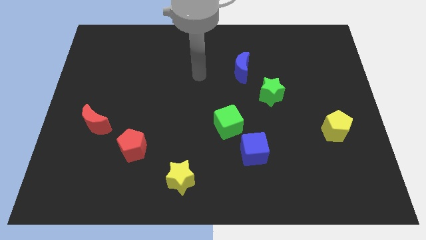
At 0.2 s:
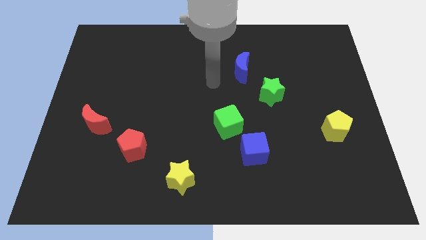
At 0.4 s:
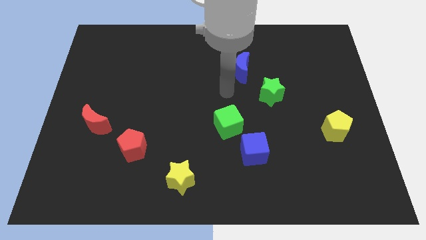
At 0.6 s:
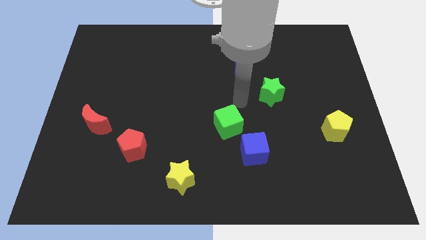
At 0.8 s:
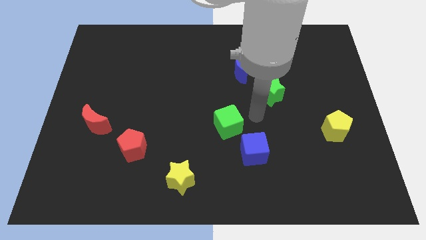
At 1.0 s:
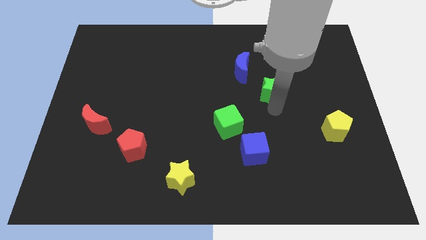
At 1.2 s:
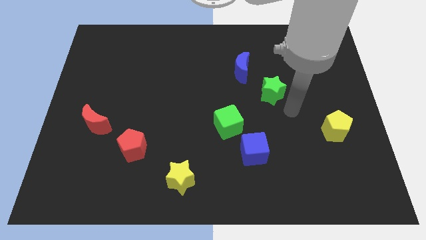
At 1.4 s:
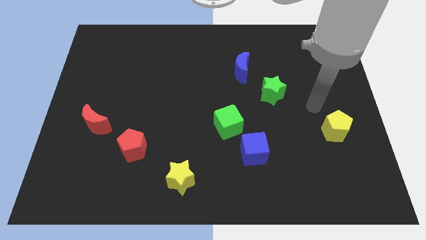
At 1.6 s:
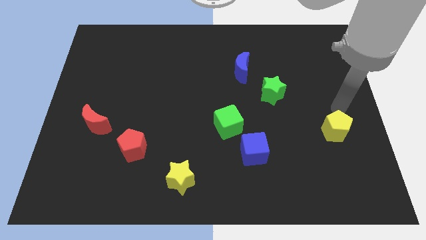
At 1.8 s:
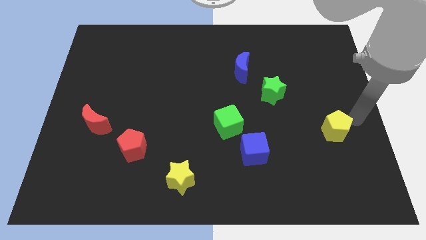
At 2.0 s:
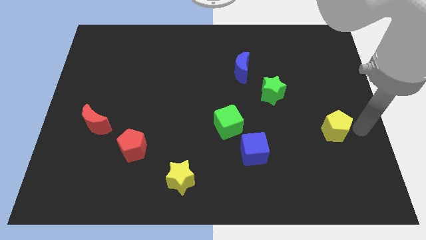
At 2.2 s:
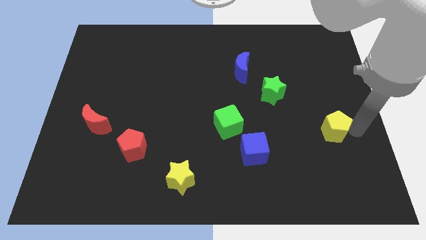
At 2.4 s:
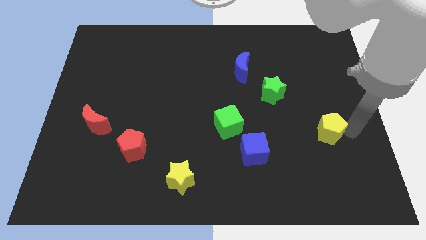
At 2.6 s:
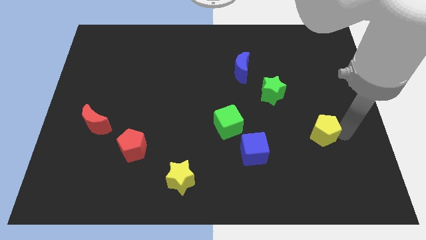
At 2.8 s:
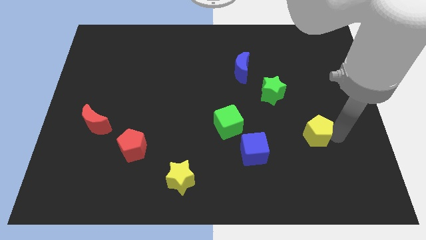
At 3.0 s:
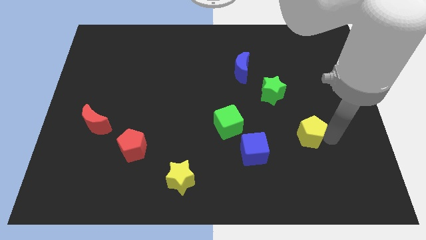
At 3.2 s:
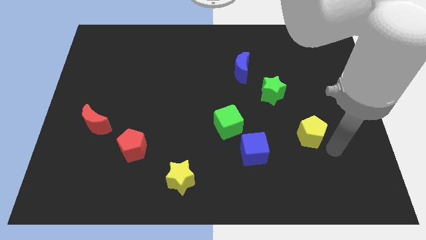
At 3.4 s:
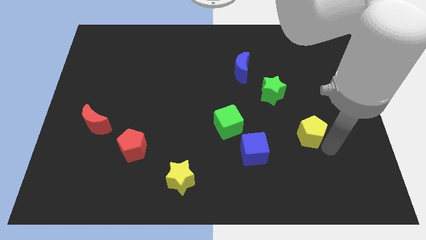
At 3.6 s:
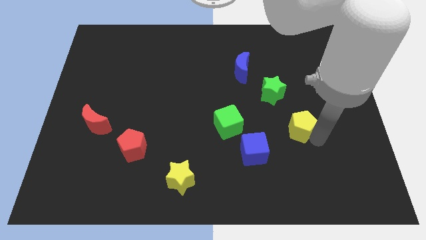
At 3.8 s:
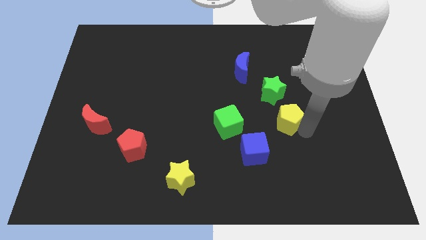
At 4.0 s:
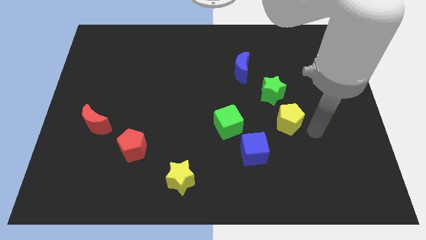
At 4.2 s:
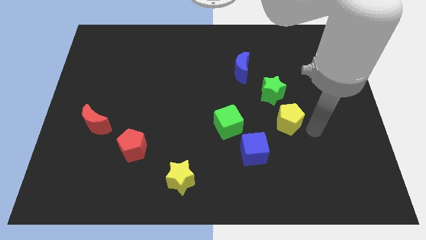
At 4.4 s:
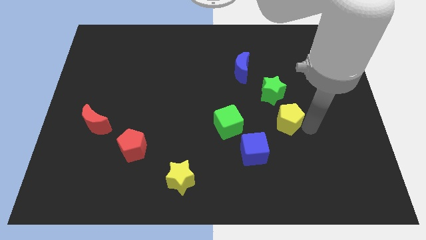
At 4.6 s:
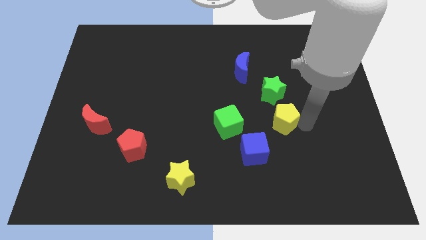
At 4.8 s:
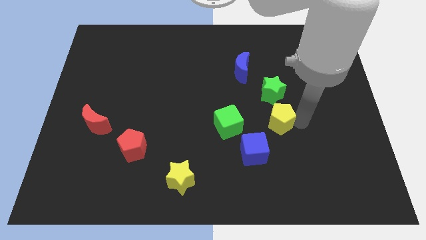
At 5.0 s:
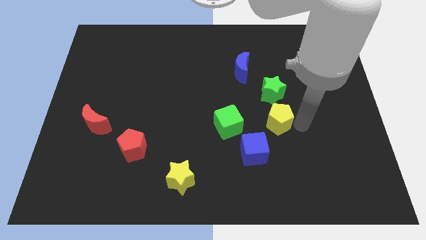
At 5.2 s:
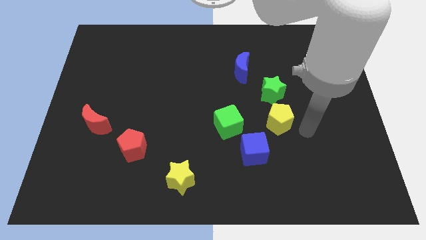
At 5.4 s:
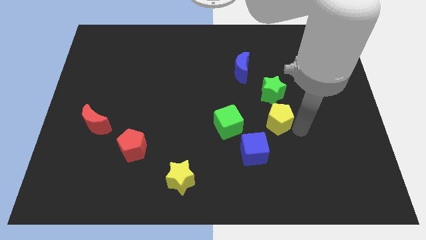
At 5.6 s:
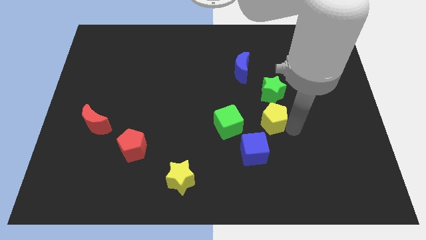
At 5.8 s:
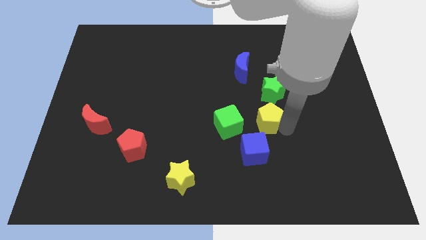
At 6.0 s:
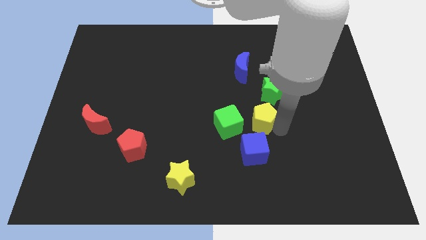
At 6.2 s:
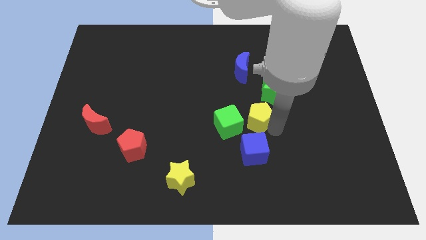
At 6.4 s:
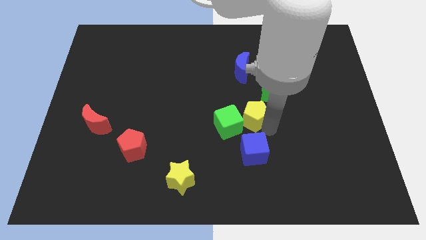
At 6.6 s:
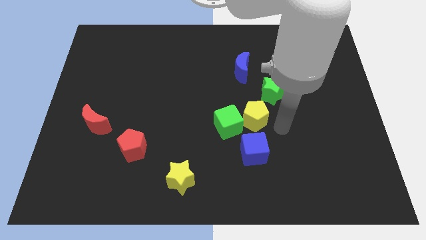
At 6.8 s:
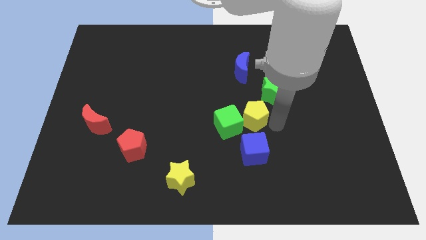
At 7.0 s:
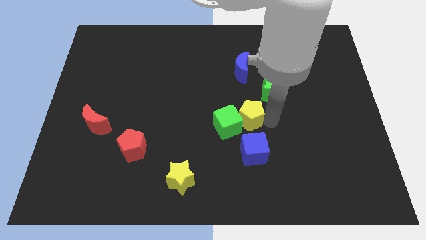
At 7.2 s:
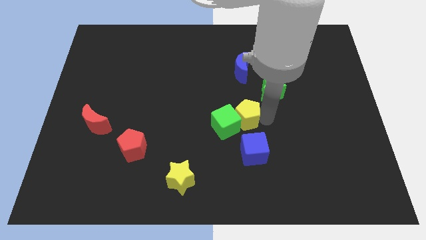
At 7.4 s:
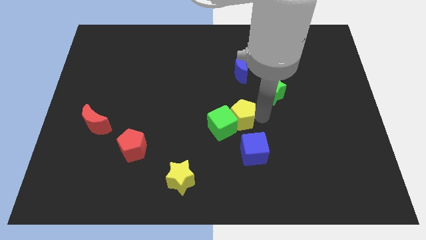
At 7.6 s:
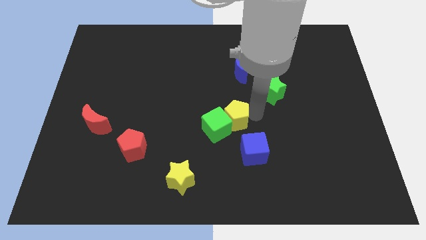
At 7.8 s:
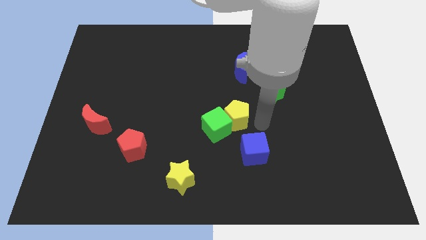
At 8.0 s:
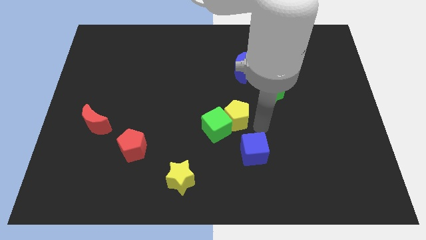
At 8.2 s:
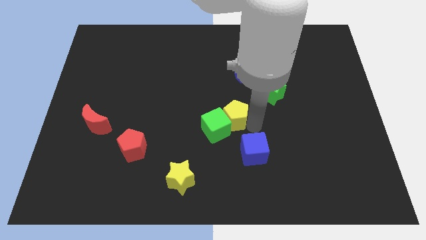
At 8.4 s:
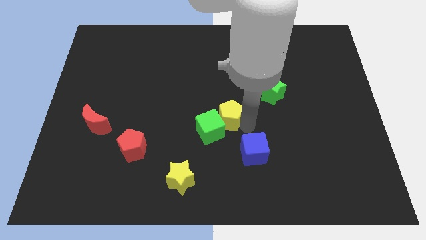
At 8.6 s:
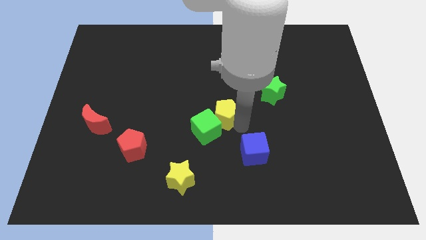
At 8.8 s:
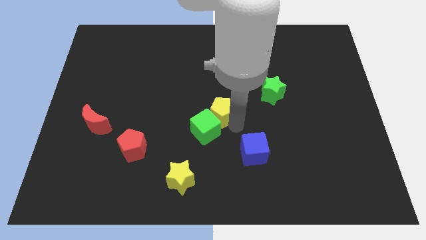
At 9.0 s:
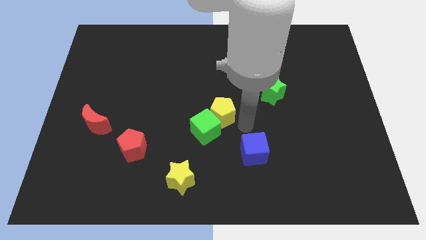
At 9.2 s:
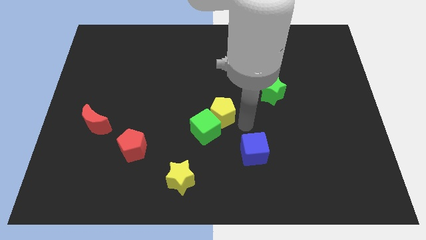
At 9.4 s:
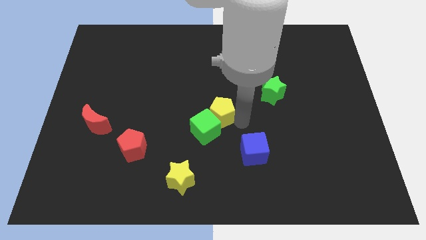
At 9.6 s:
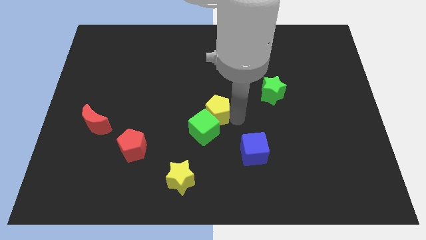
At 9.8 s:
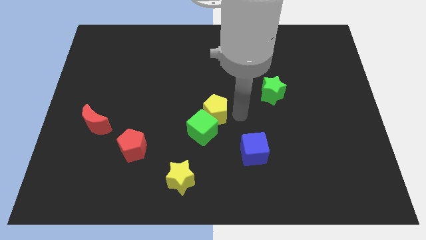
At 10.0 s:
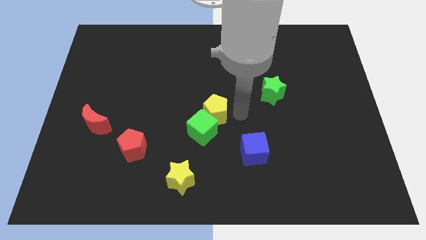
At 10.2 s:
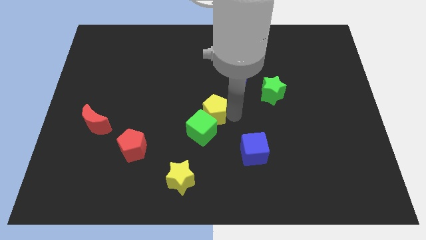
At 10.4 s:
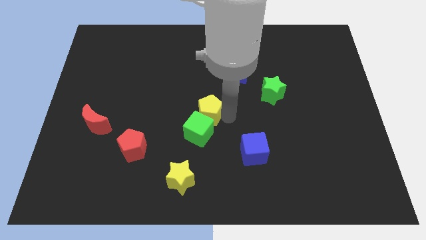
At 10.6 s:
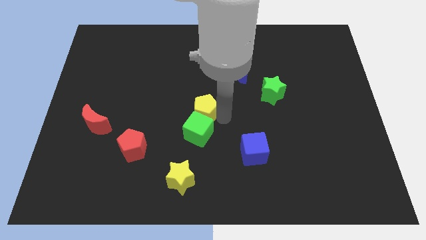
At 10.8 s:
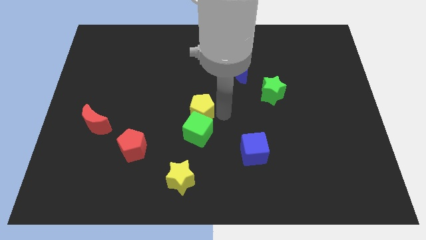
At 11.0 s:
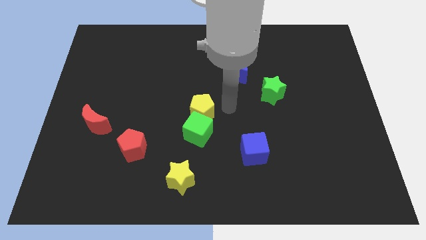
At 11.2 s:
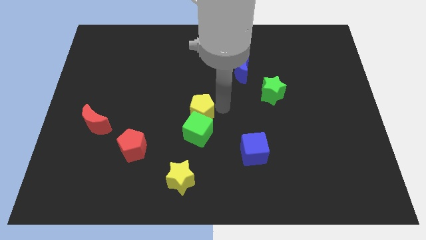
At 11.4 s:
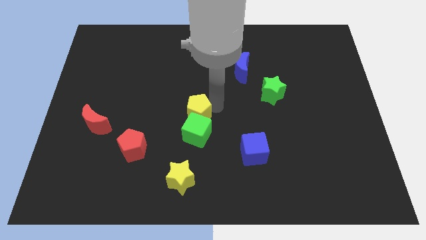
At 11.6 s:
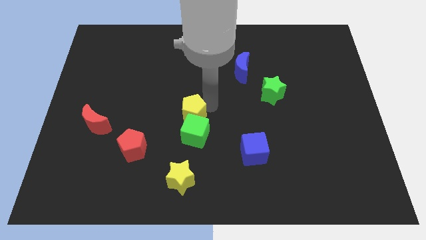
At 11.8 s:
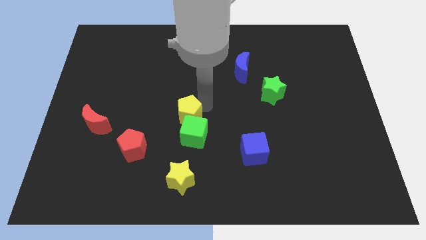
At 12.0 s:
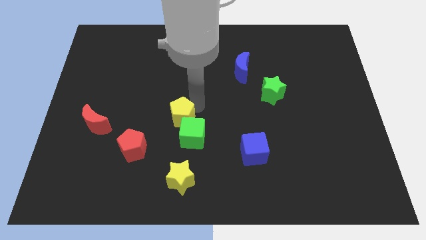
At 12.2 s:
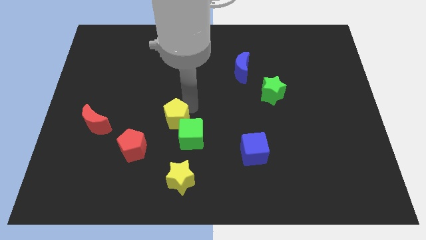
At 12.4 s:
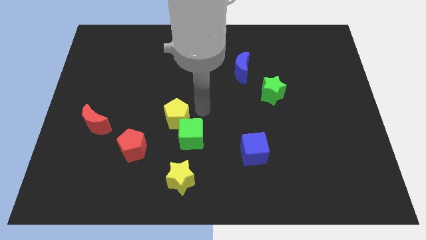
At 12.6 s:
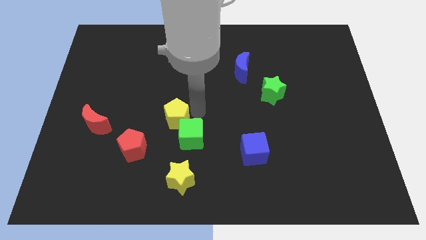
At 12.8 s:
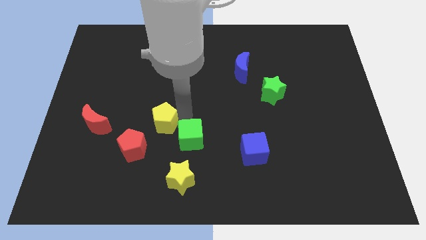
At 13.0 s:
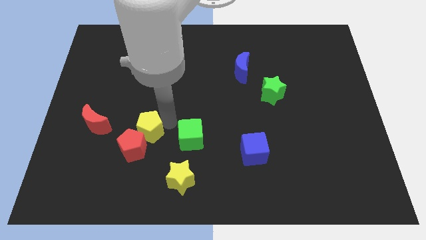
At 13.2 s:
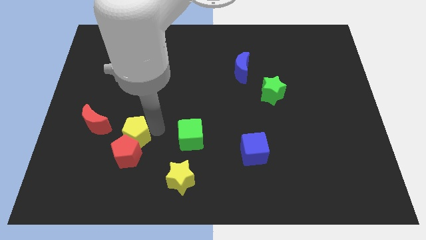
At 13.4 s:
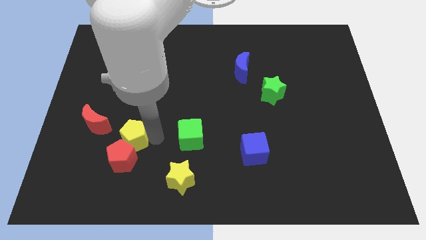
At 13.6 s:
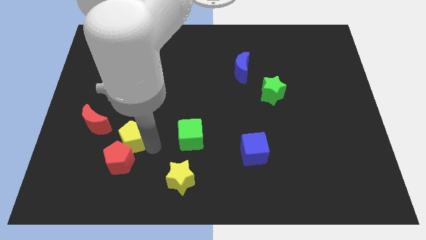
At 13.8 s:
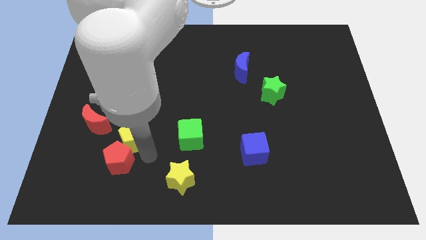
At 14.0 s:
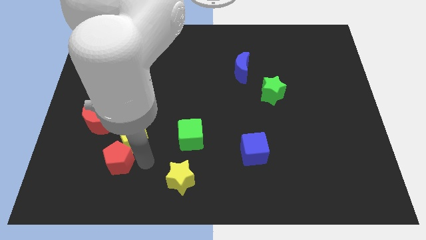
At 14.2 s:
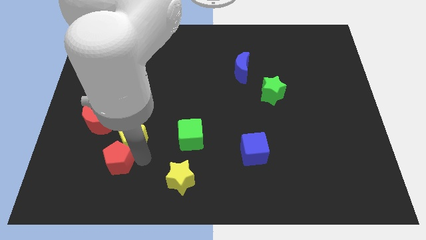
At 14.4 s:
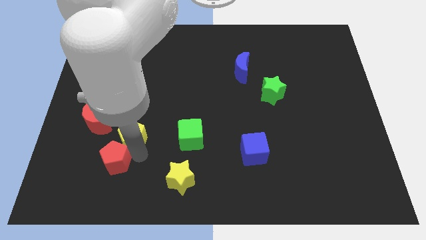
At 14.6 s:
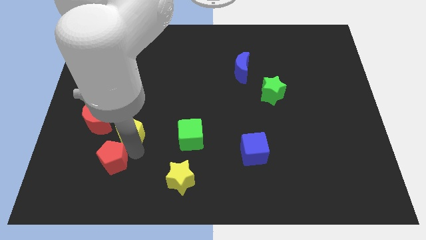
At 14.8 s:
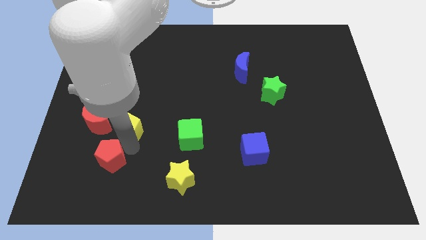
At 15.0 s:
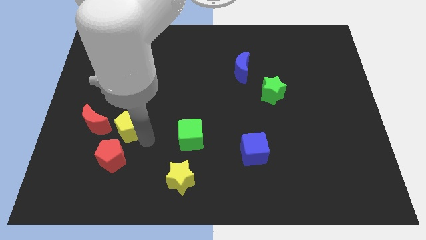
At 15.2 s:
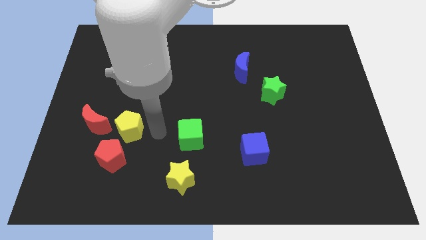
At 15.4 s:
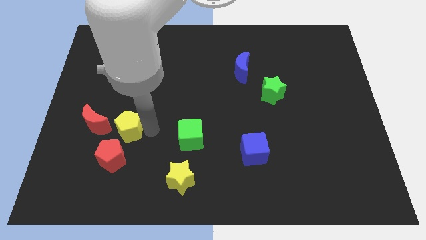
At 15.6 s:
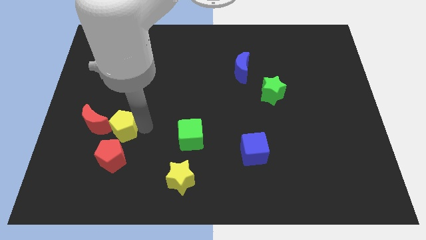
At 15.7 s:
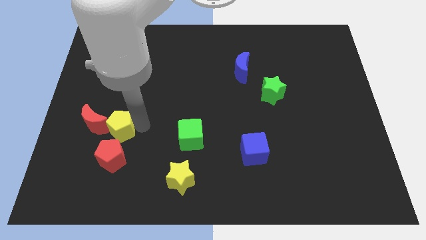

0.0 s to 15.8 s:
slide the yellow pentagon close to the red moon
